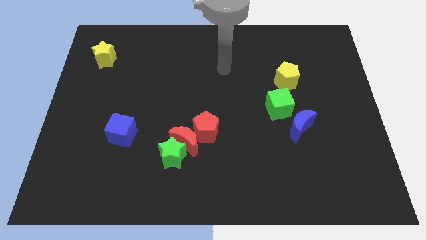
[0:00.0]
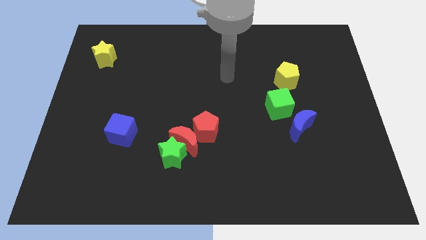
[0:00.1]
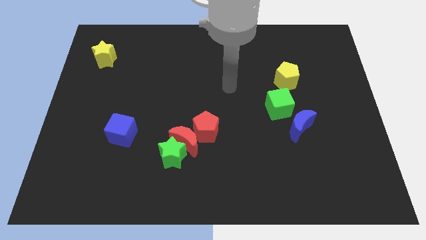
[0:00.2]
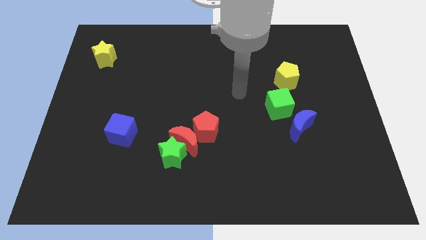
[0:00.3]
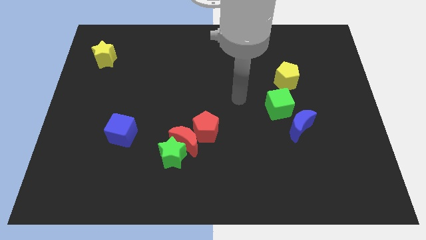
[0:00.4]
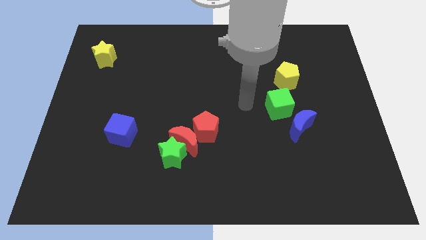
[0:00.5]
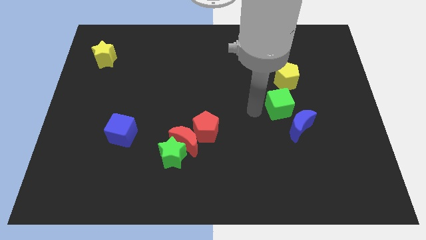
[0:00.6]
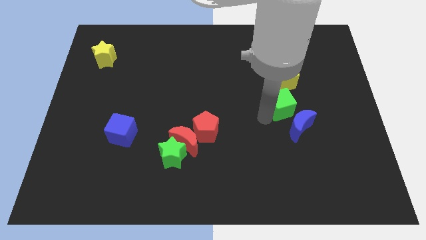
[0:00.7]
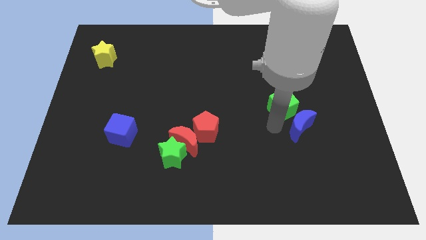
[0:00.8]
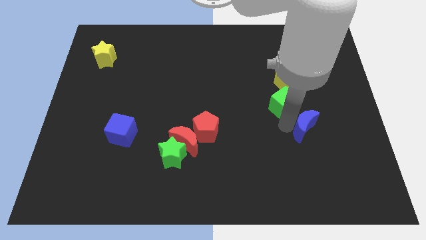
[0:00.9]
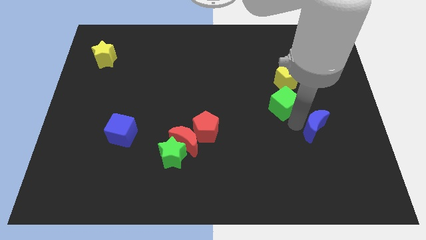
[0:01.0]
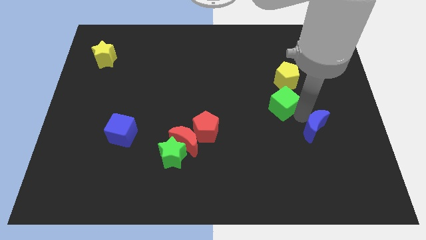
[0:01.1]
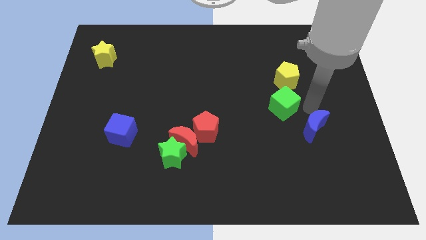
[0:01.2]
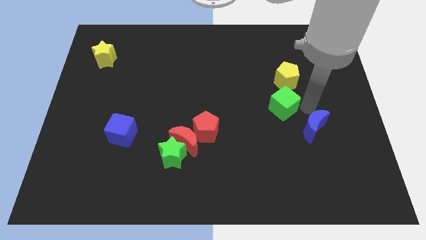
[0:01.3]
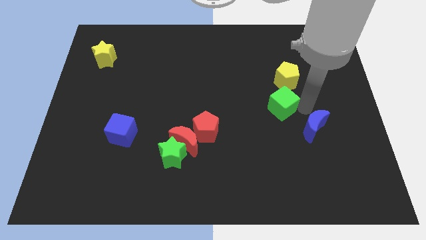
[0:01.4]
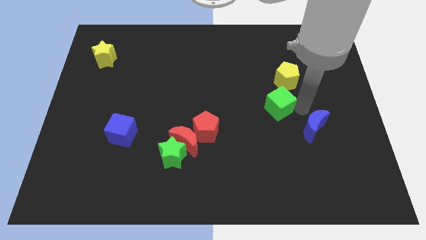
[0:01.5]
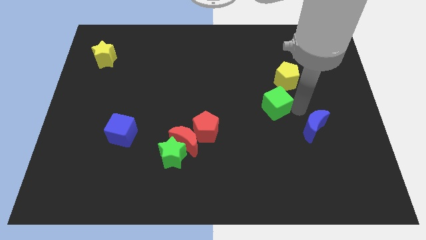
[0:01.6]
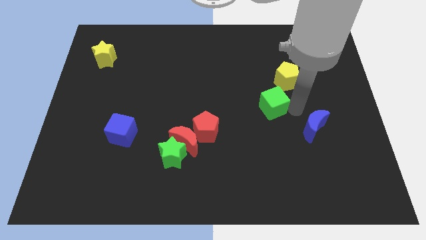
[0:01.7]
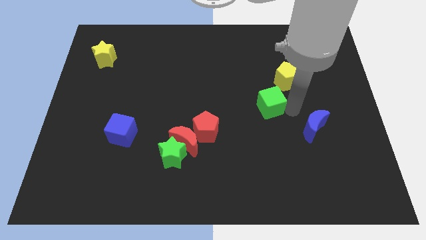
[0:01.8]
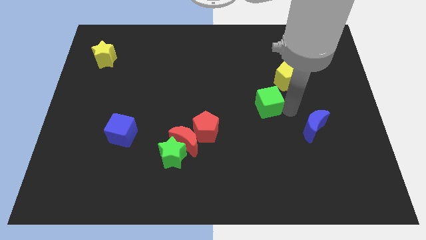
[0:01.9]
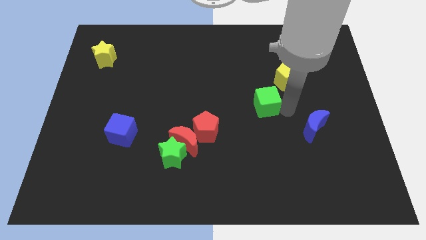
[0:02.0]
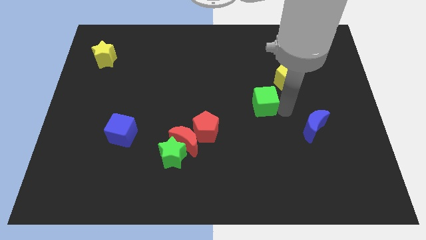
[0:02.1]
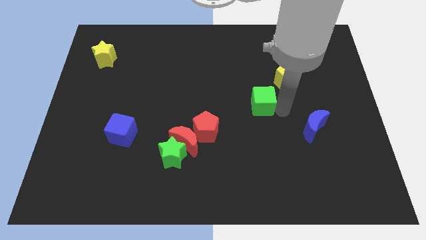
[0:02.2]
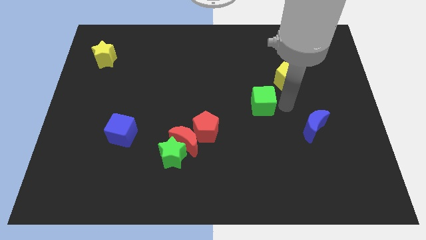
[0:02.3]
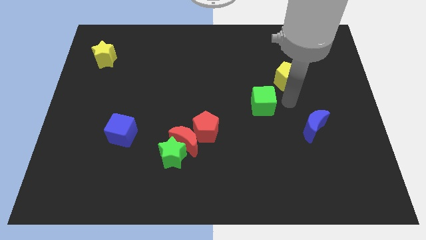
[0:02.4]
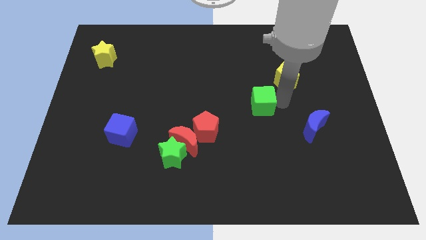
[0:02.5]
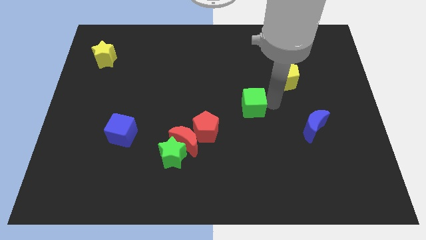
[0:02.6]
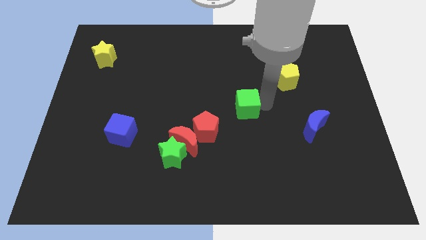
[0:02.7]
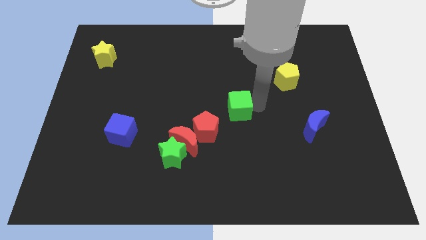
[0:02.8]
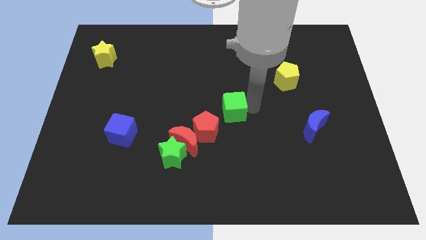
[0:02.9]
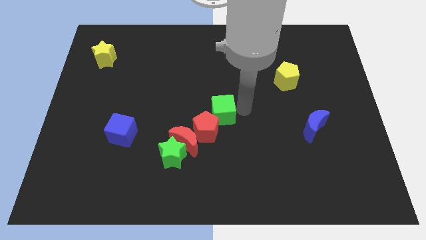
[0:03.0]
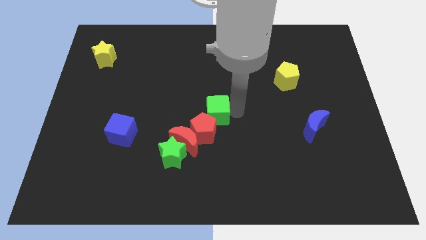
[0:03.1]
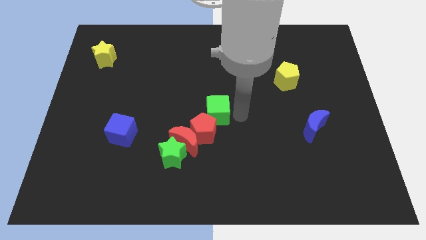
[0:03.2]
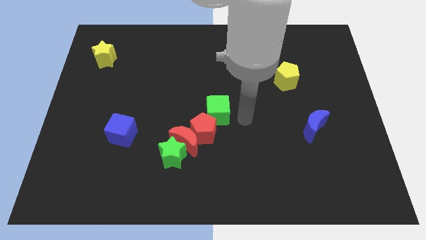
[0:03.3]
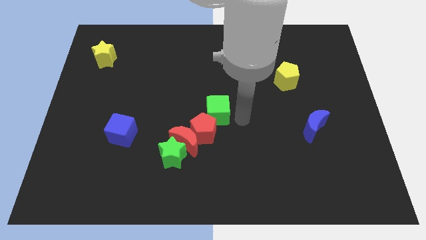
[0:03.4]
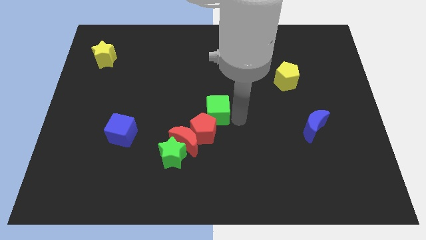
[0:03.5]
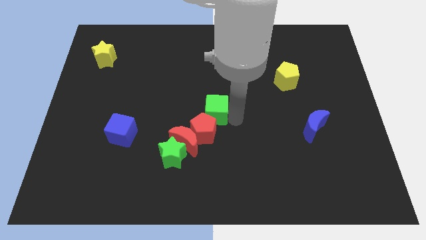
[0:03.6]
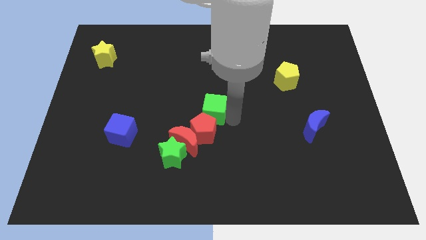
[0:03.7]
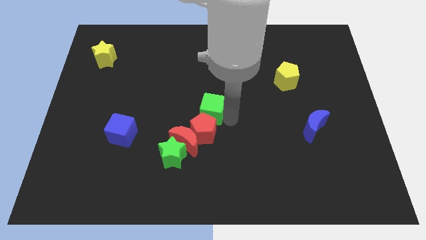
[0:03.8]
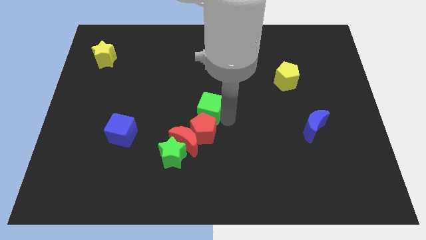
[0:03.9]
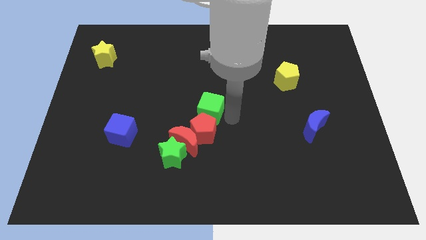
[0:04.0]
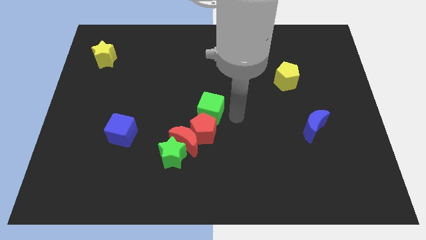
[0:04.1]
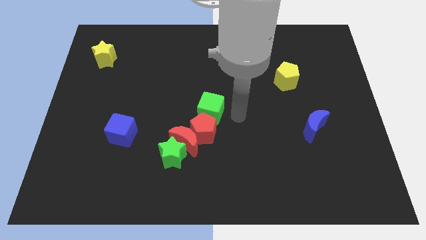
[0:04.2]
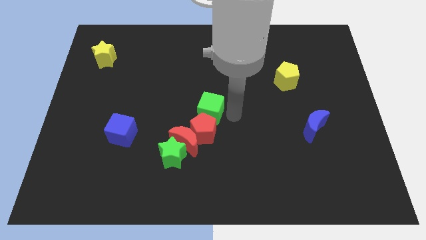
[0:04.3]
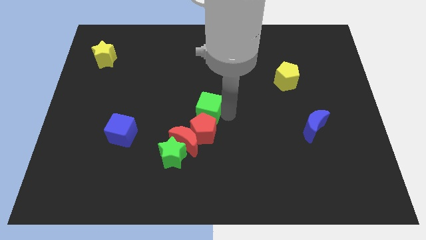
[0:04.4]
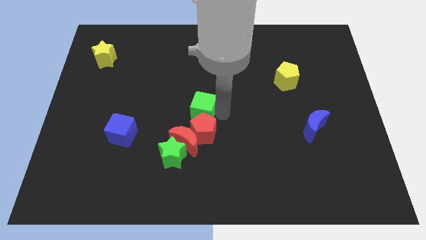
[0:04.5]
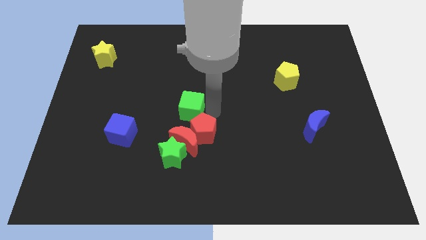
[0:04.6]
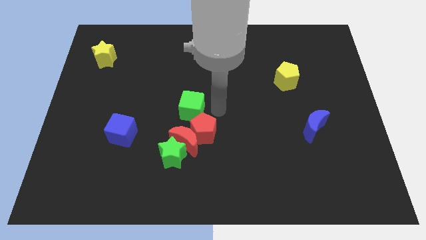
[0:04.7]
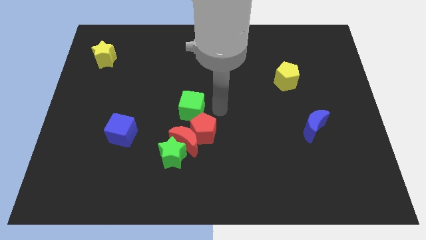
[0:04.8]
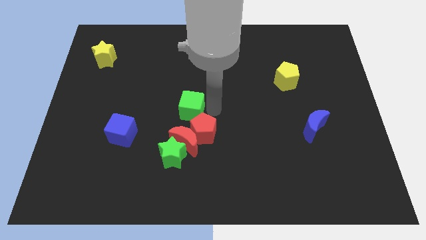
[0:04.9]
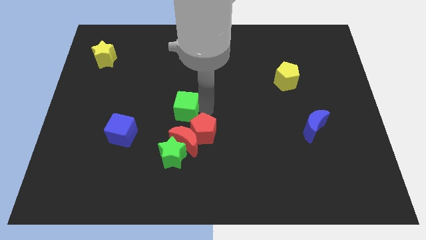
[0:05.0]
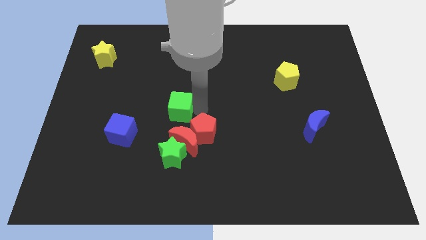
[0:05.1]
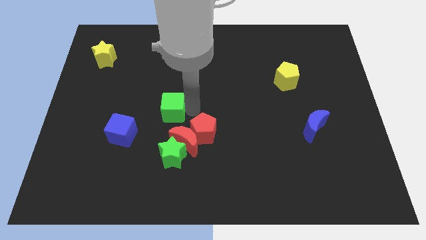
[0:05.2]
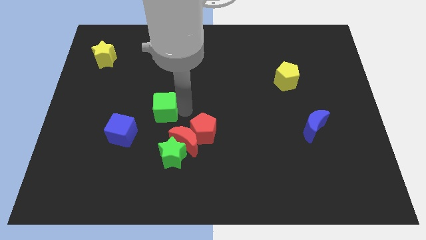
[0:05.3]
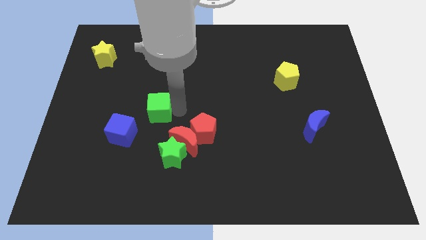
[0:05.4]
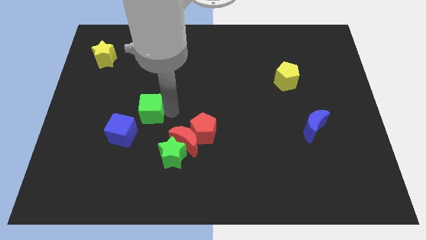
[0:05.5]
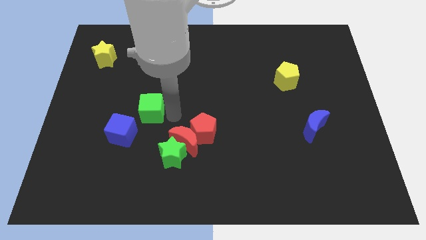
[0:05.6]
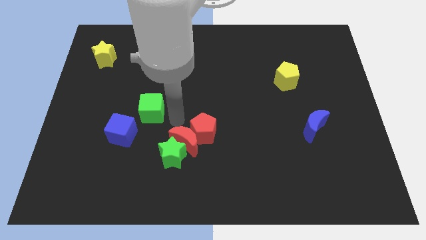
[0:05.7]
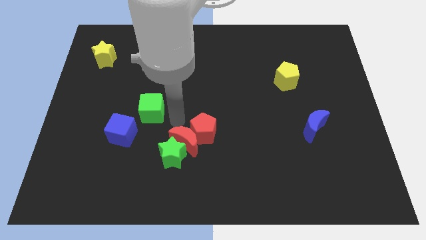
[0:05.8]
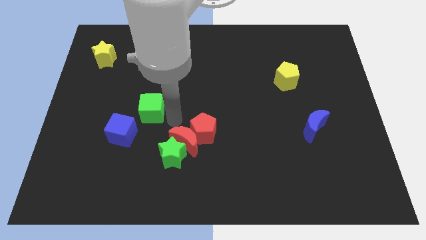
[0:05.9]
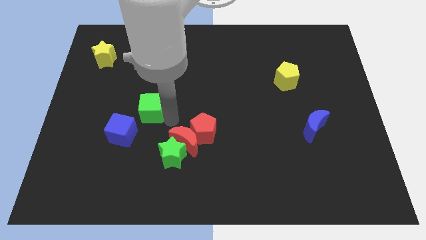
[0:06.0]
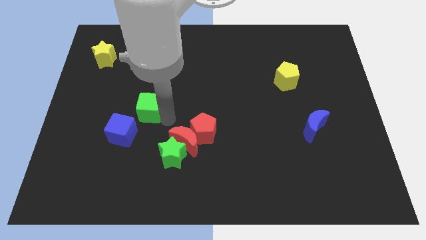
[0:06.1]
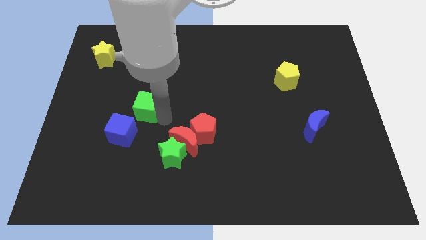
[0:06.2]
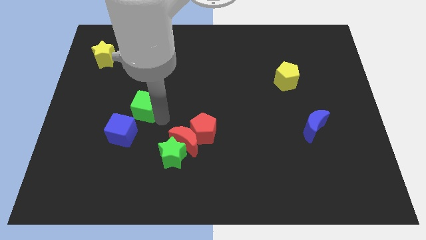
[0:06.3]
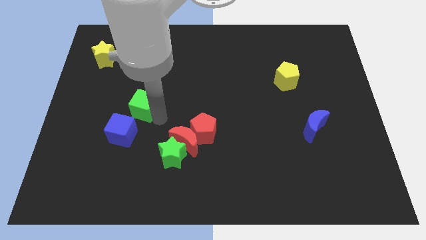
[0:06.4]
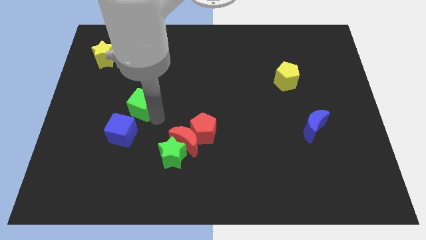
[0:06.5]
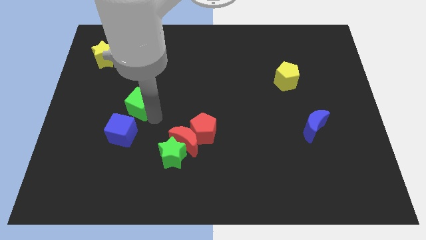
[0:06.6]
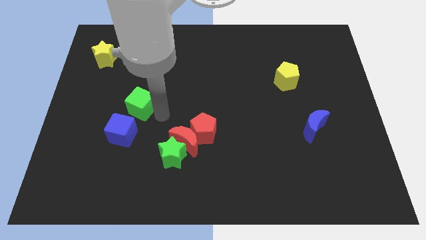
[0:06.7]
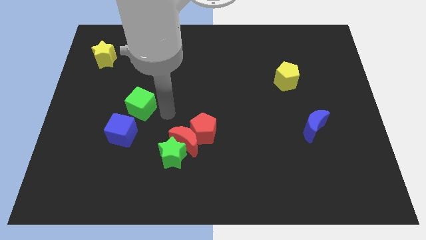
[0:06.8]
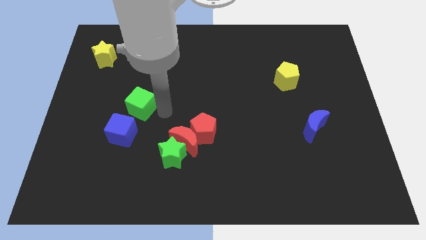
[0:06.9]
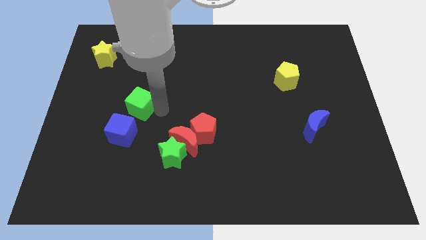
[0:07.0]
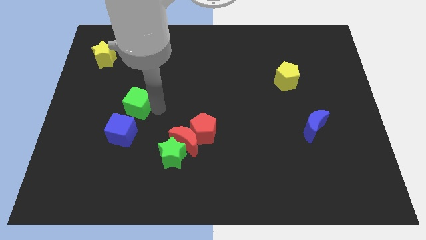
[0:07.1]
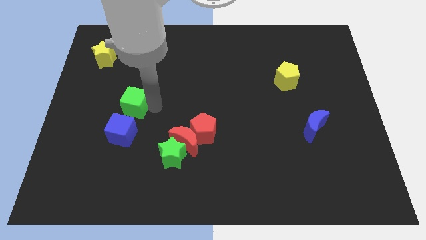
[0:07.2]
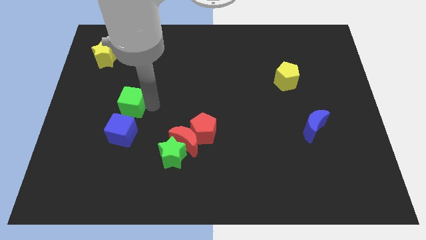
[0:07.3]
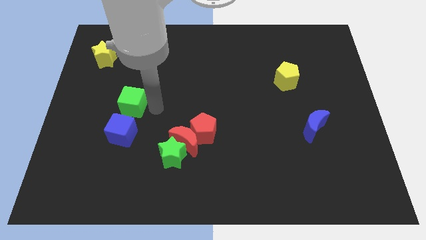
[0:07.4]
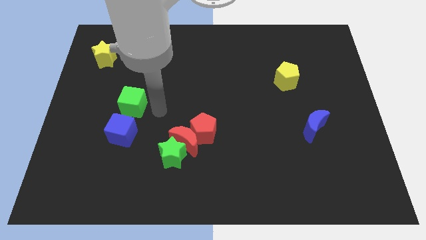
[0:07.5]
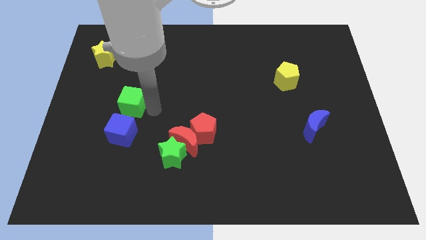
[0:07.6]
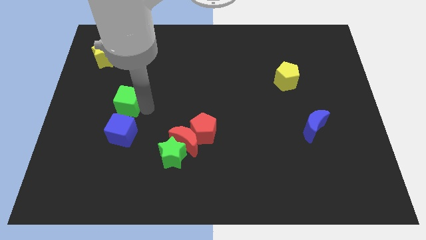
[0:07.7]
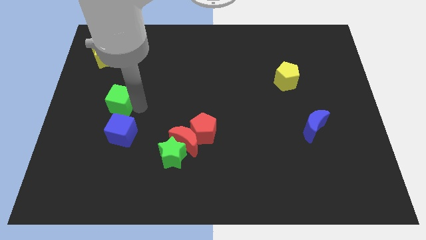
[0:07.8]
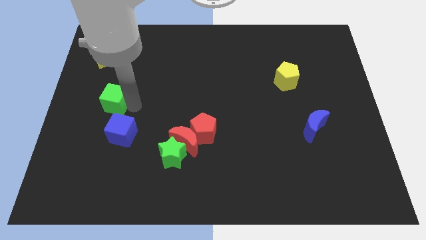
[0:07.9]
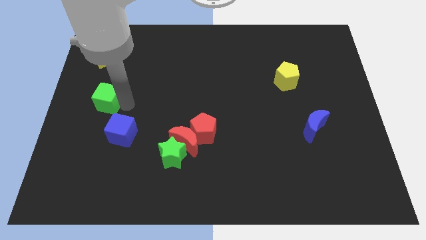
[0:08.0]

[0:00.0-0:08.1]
slide the green cube to the center left
